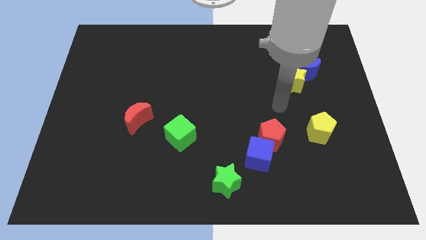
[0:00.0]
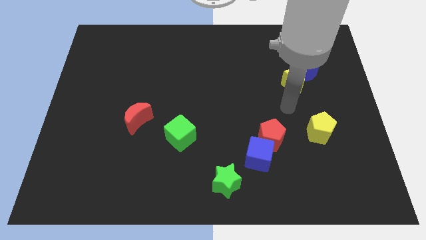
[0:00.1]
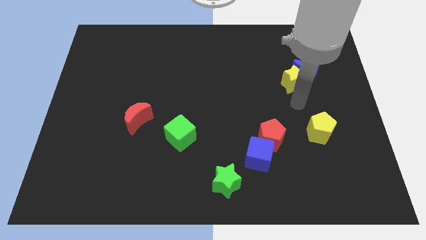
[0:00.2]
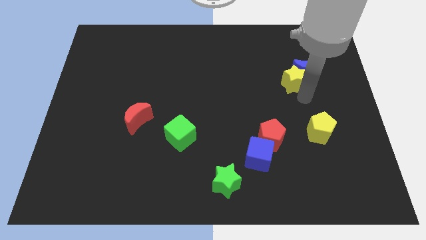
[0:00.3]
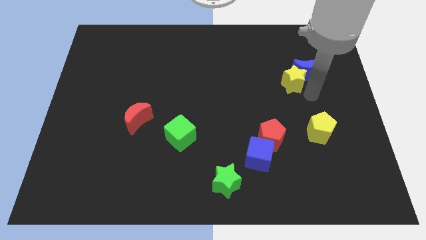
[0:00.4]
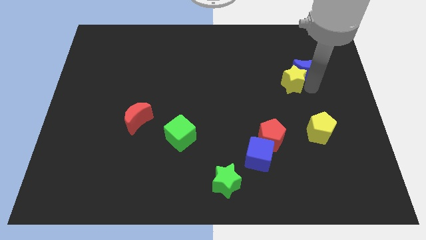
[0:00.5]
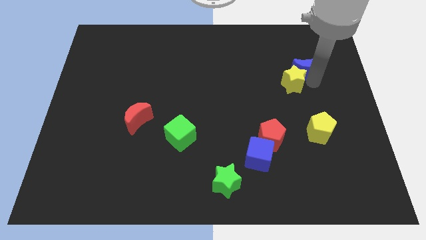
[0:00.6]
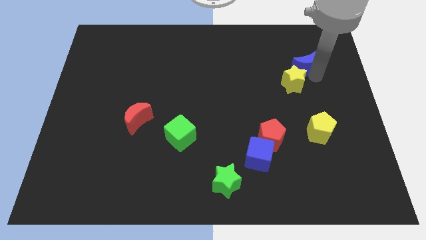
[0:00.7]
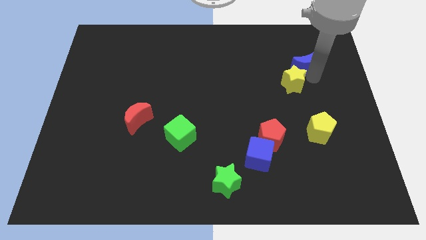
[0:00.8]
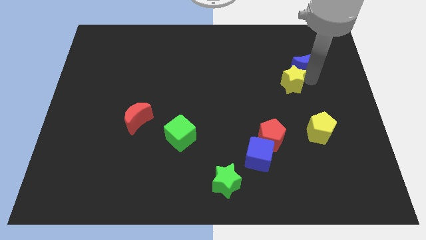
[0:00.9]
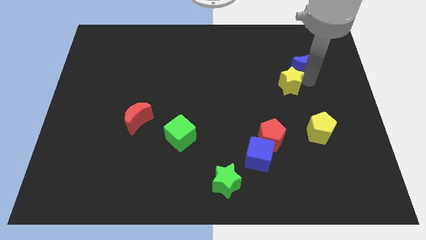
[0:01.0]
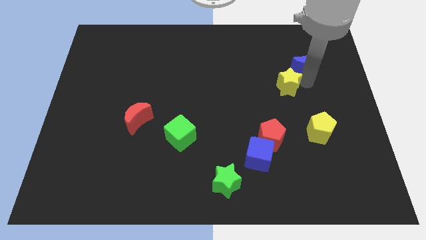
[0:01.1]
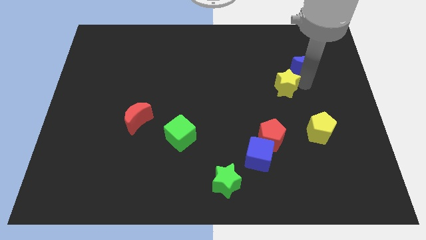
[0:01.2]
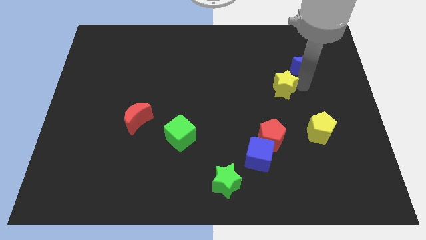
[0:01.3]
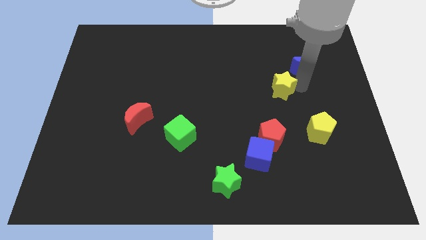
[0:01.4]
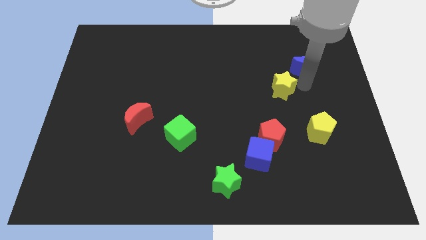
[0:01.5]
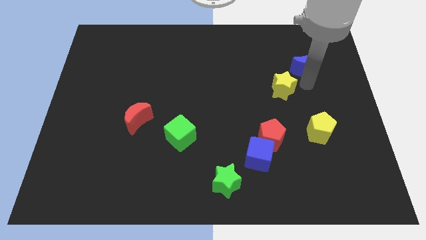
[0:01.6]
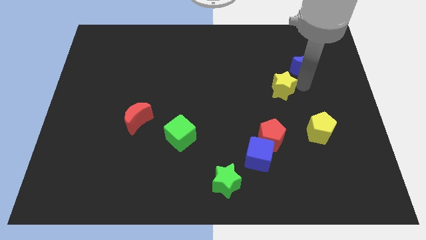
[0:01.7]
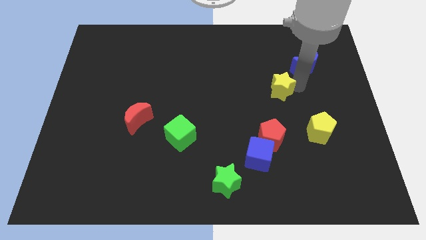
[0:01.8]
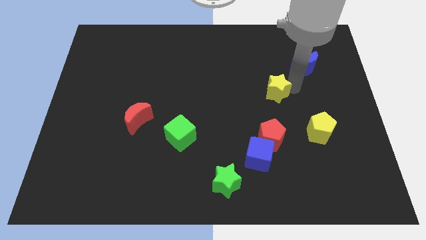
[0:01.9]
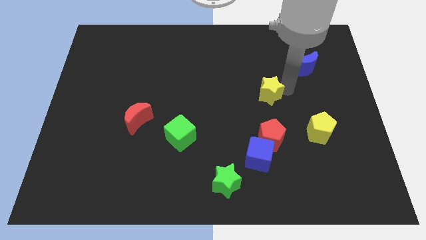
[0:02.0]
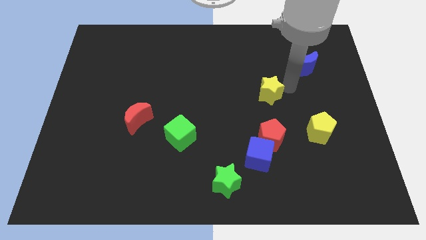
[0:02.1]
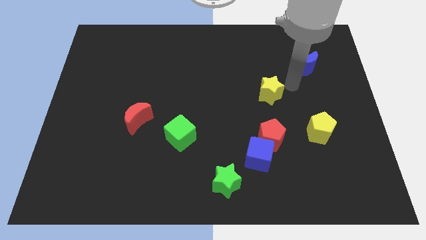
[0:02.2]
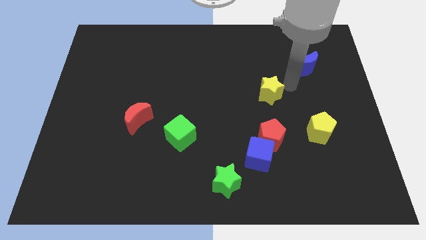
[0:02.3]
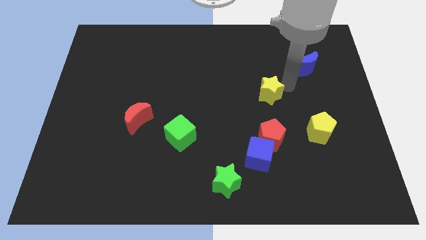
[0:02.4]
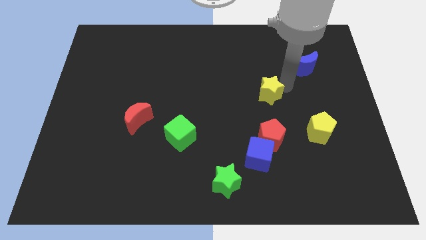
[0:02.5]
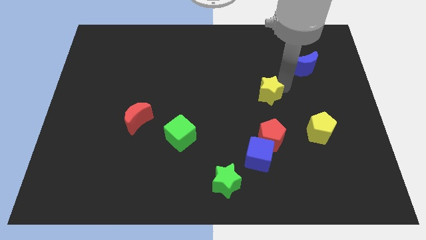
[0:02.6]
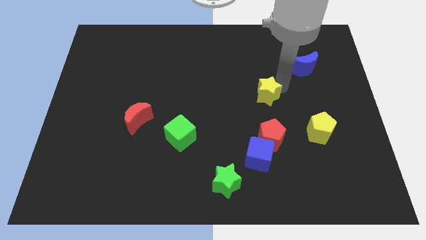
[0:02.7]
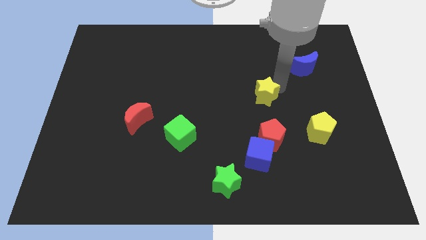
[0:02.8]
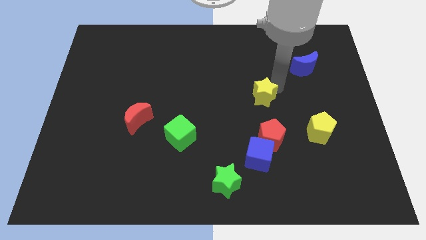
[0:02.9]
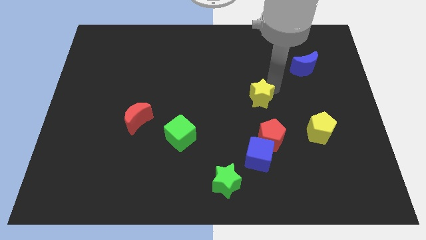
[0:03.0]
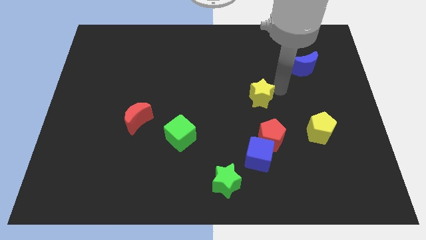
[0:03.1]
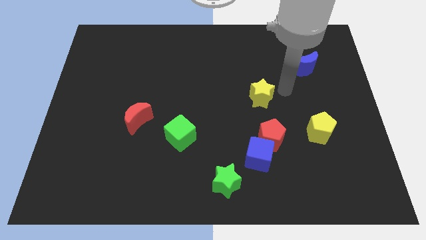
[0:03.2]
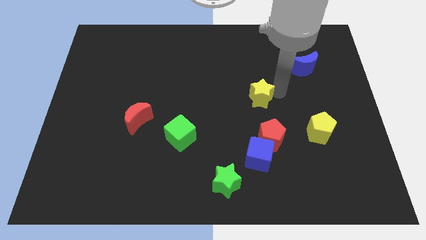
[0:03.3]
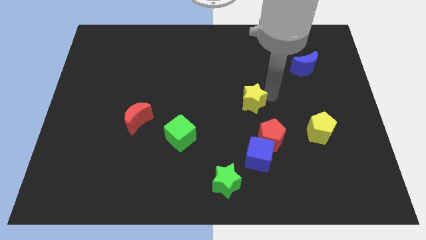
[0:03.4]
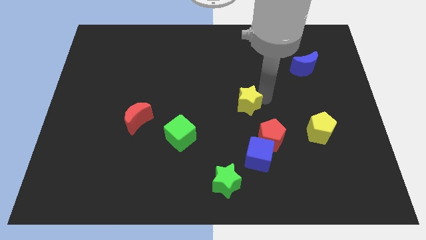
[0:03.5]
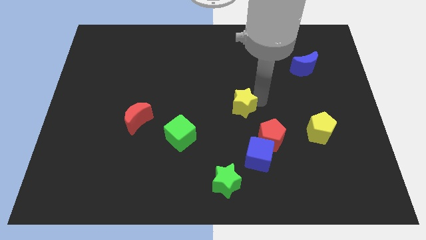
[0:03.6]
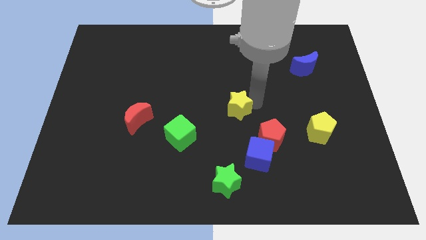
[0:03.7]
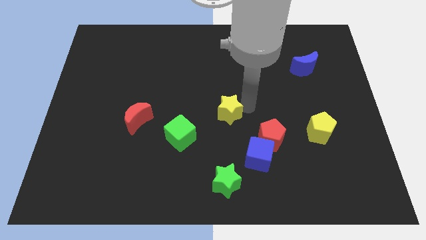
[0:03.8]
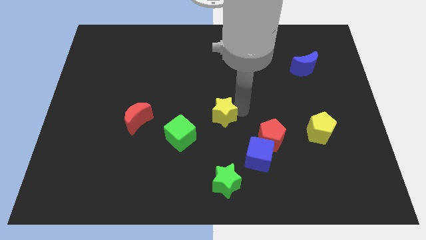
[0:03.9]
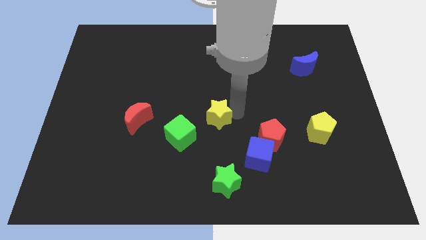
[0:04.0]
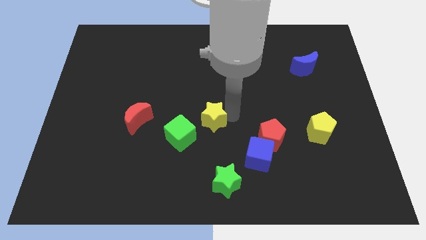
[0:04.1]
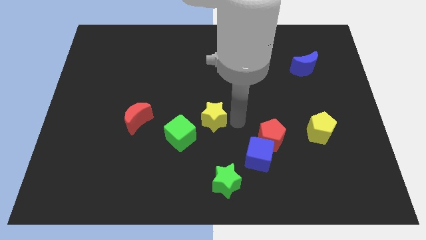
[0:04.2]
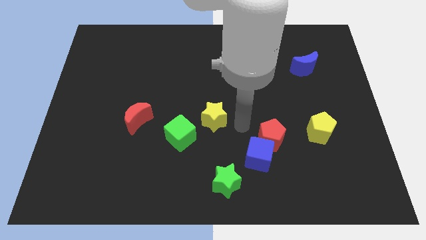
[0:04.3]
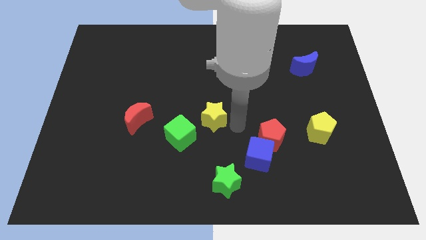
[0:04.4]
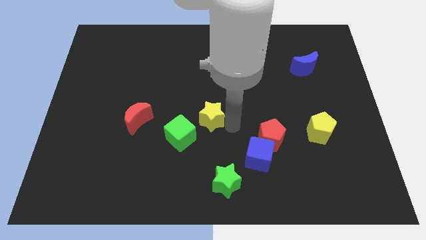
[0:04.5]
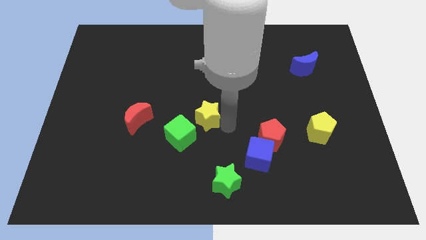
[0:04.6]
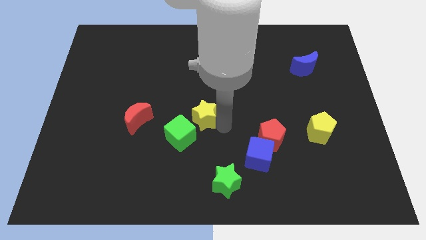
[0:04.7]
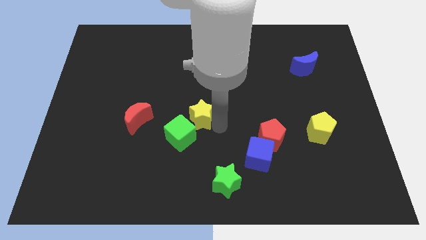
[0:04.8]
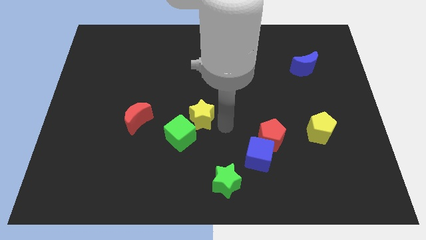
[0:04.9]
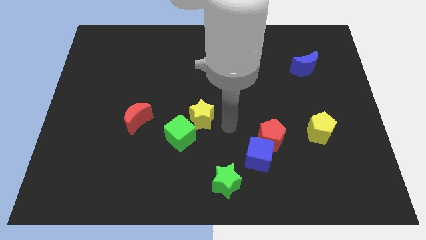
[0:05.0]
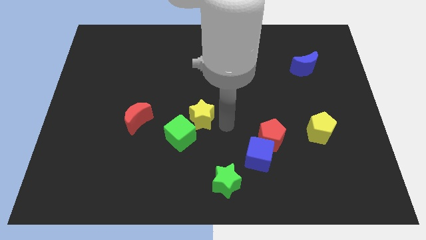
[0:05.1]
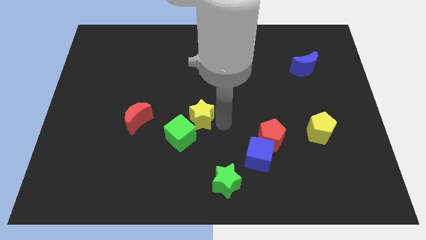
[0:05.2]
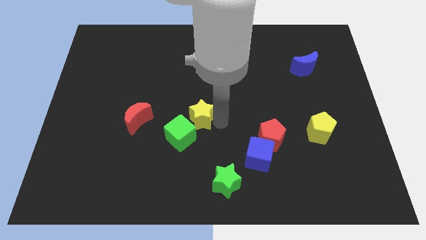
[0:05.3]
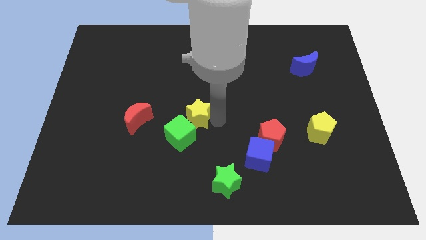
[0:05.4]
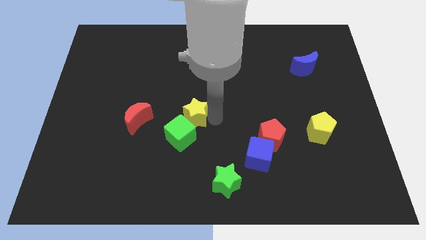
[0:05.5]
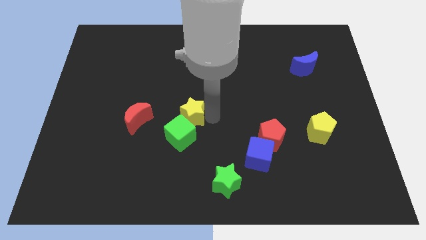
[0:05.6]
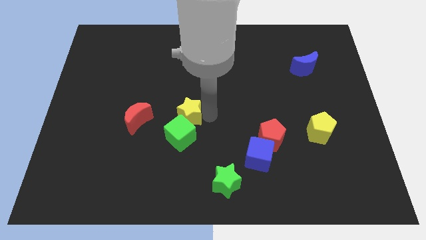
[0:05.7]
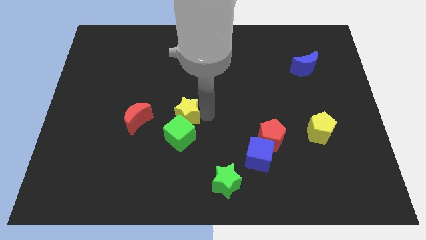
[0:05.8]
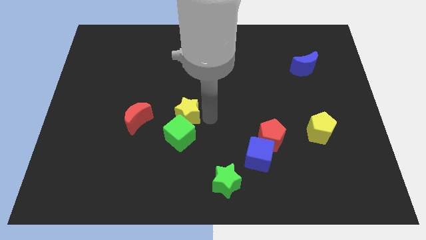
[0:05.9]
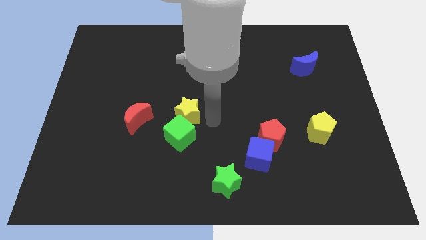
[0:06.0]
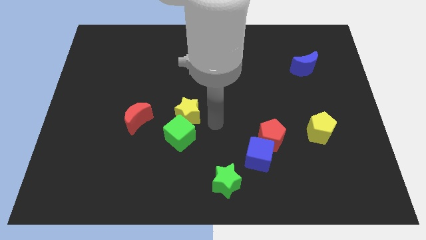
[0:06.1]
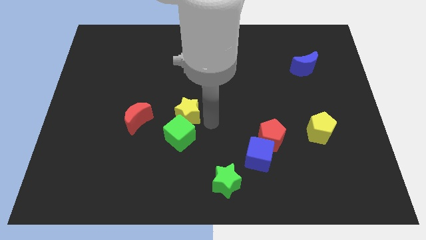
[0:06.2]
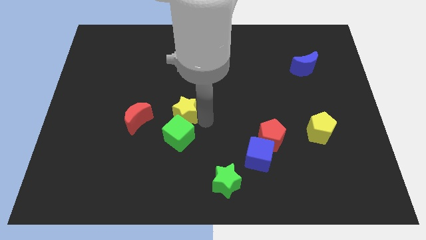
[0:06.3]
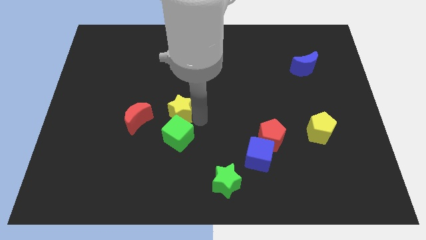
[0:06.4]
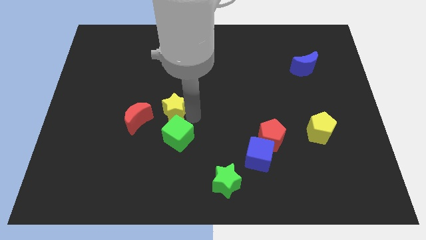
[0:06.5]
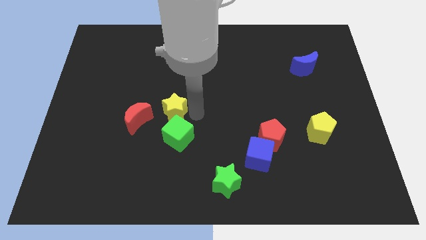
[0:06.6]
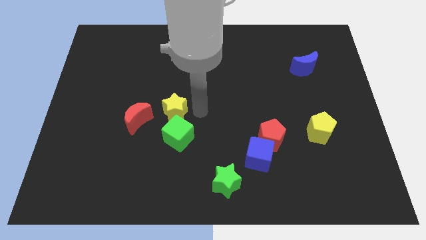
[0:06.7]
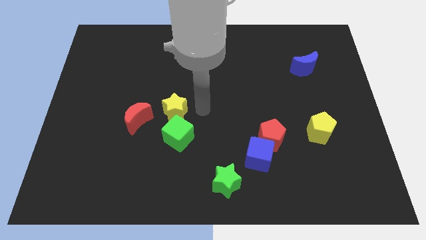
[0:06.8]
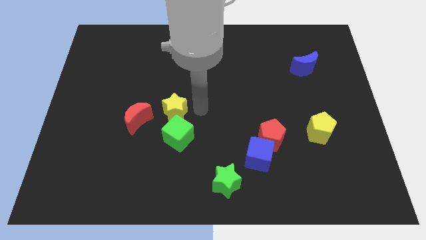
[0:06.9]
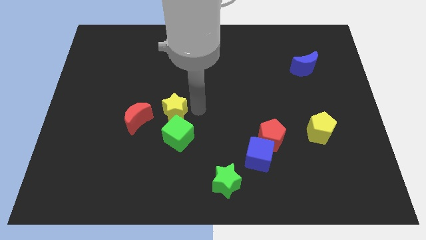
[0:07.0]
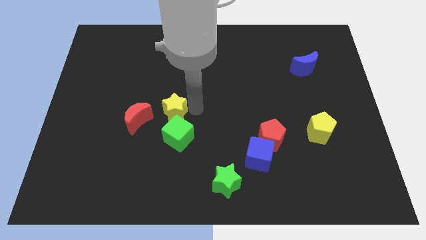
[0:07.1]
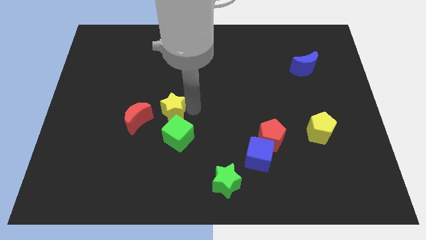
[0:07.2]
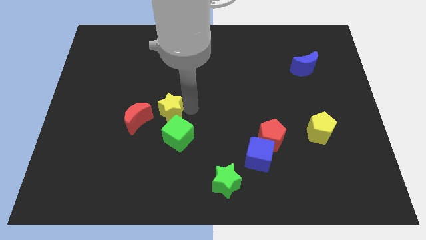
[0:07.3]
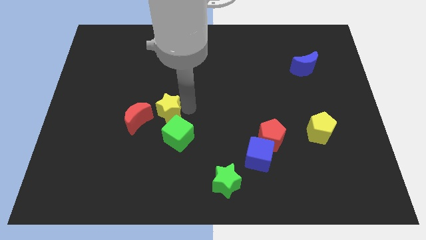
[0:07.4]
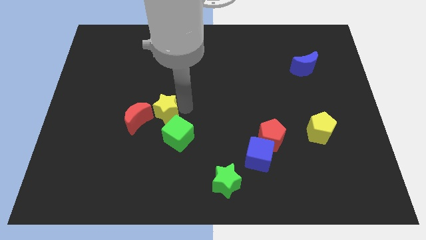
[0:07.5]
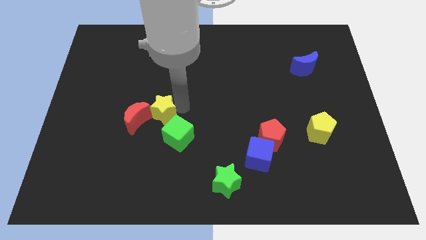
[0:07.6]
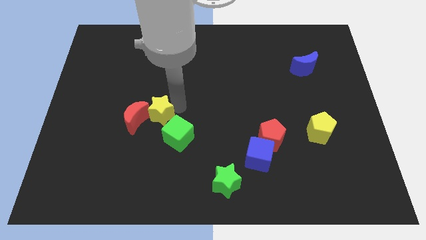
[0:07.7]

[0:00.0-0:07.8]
slide the yellow star close to the red moon
